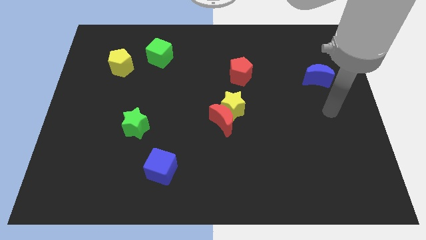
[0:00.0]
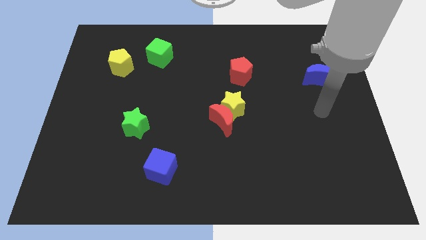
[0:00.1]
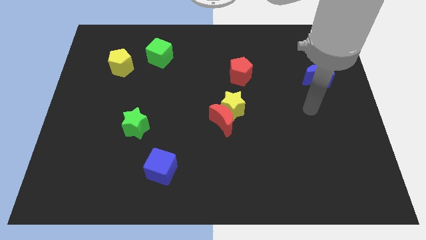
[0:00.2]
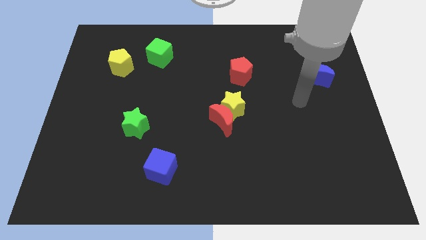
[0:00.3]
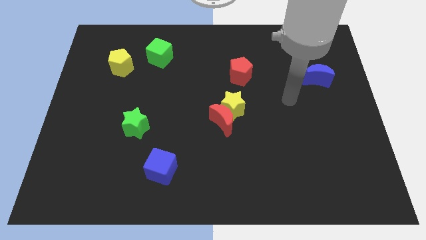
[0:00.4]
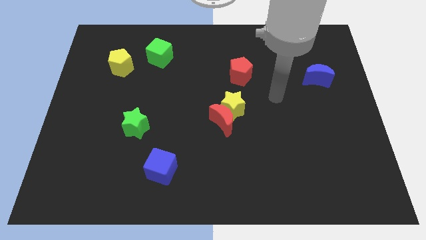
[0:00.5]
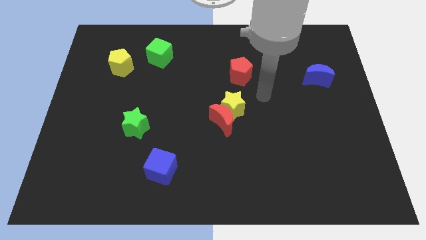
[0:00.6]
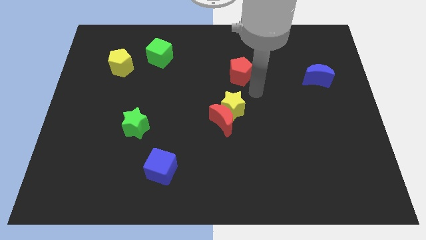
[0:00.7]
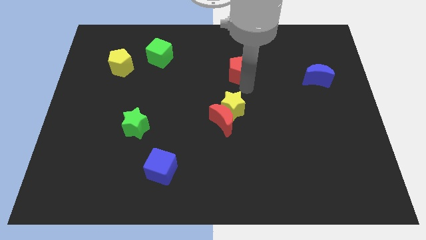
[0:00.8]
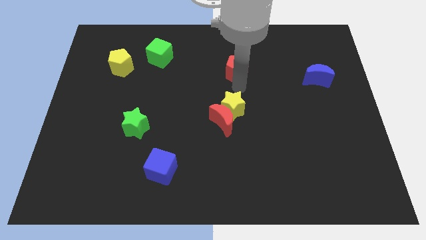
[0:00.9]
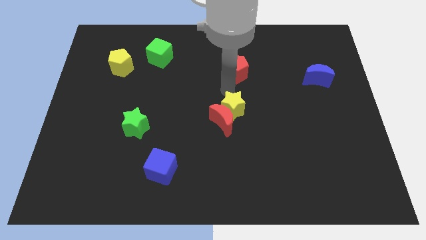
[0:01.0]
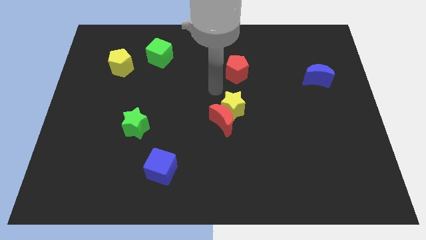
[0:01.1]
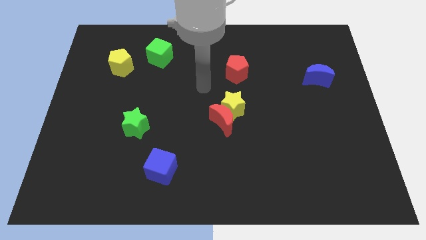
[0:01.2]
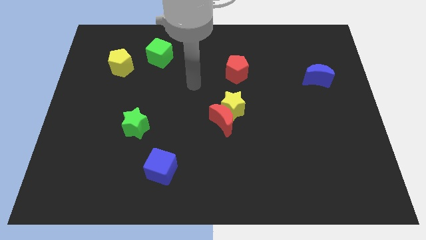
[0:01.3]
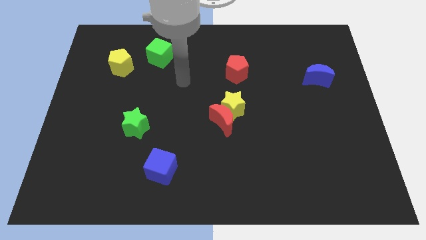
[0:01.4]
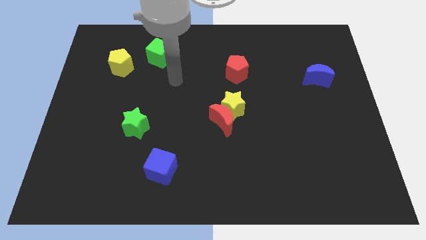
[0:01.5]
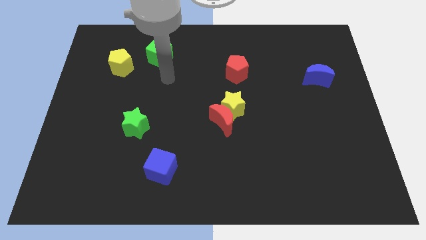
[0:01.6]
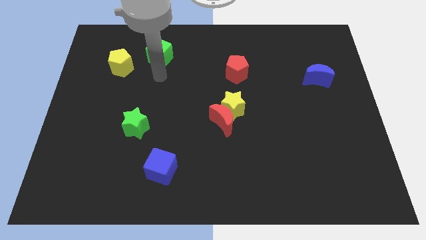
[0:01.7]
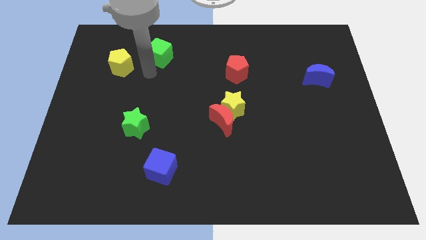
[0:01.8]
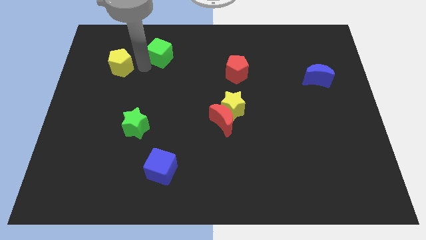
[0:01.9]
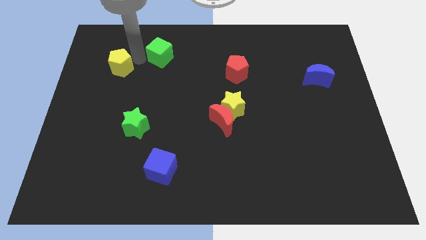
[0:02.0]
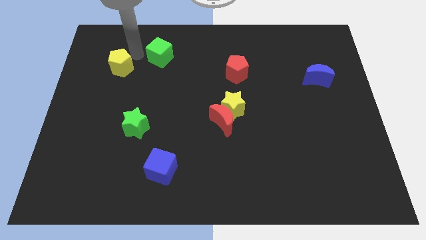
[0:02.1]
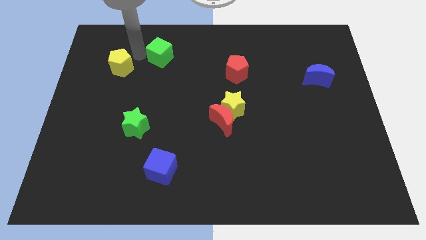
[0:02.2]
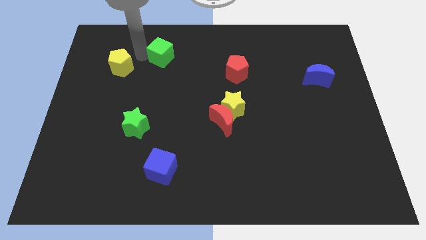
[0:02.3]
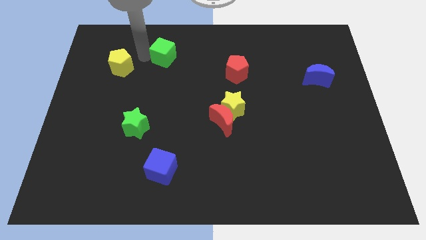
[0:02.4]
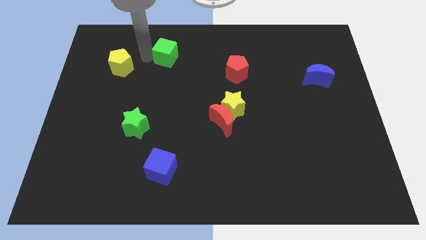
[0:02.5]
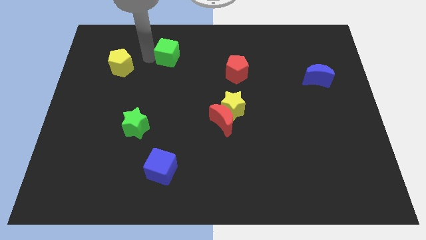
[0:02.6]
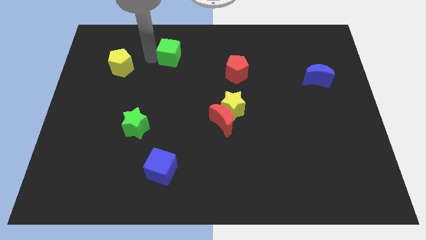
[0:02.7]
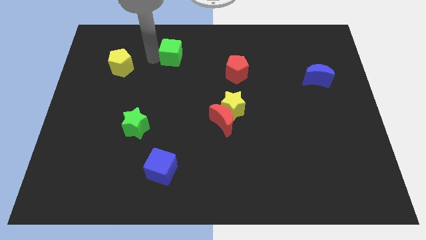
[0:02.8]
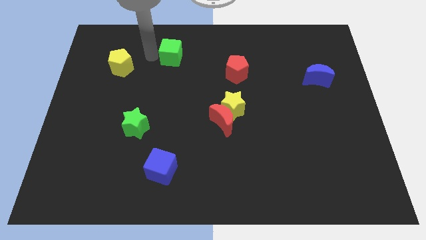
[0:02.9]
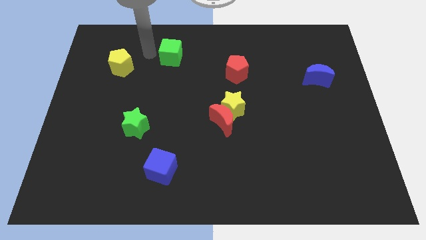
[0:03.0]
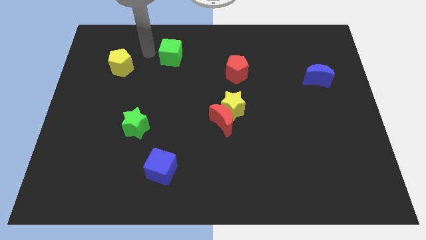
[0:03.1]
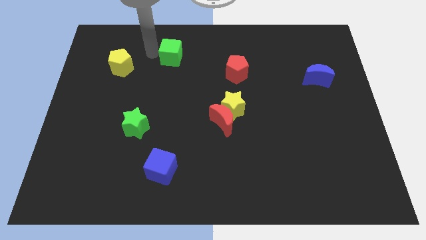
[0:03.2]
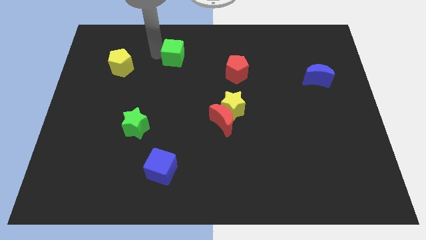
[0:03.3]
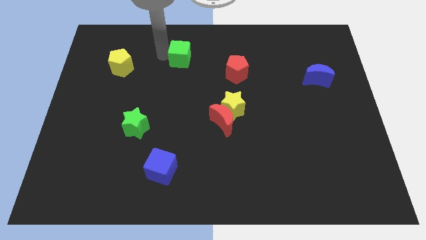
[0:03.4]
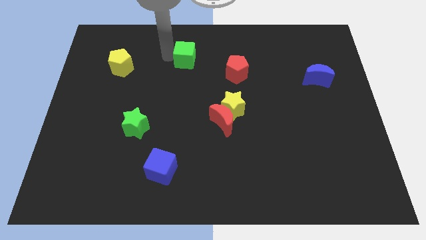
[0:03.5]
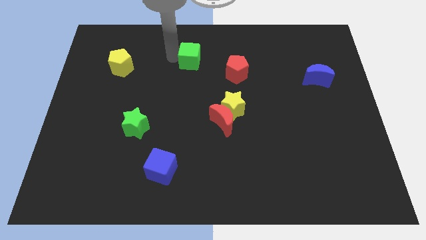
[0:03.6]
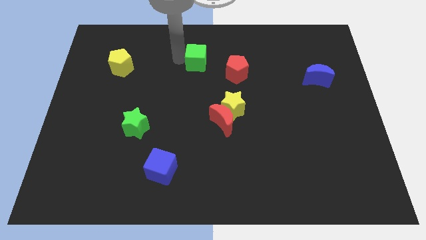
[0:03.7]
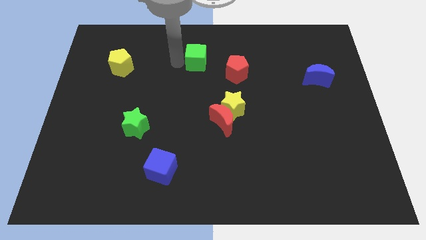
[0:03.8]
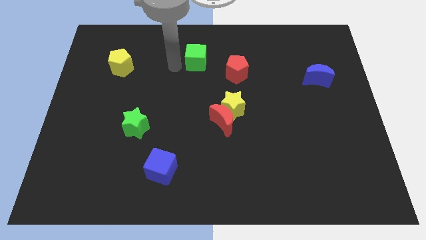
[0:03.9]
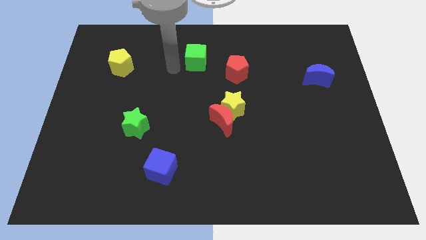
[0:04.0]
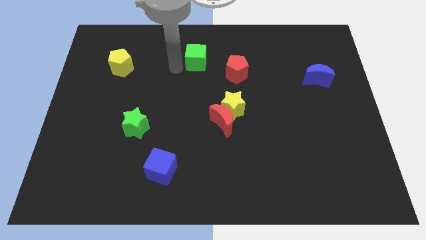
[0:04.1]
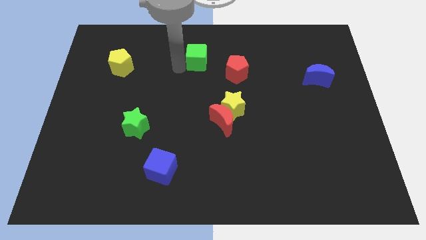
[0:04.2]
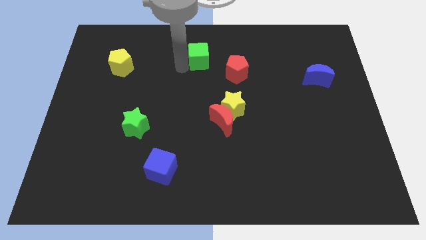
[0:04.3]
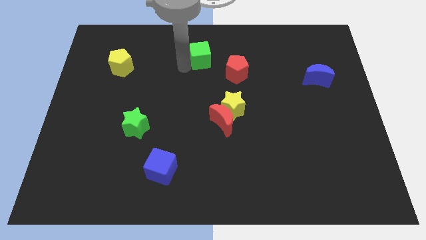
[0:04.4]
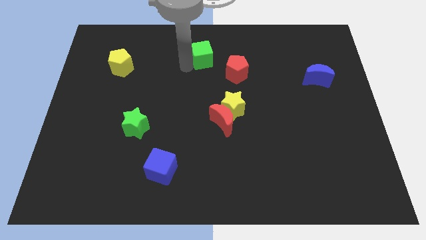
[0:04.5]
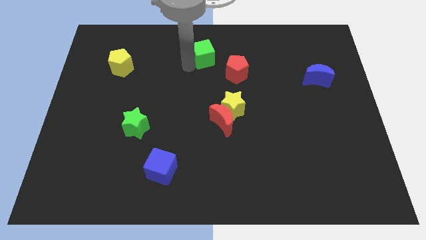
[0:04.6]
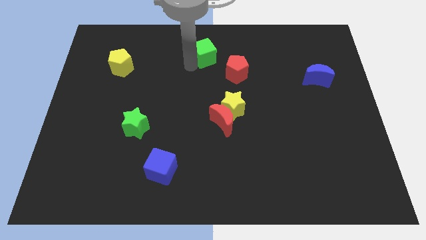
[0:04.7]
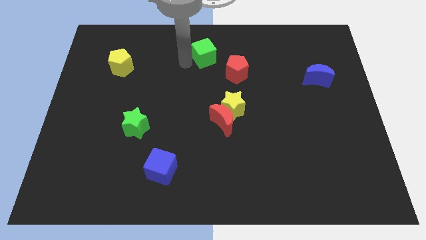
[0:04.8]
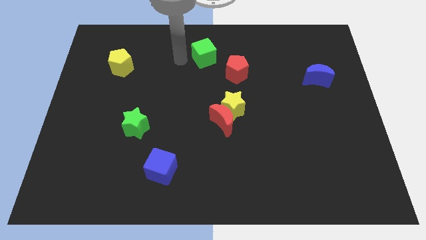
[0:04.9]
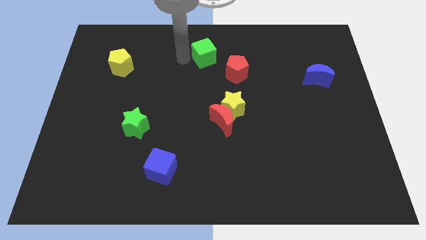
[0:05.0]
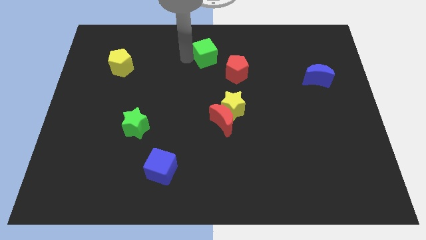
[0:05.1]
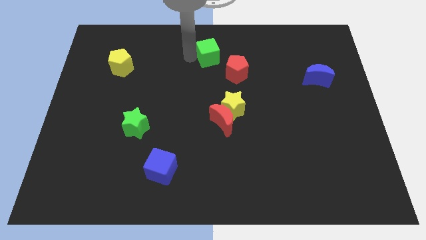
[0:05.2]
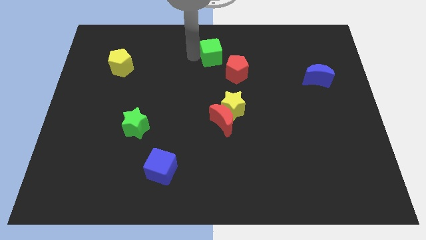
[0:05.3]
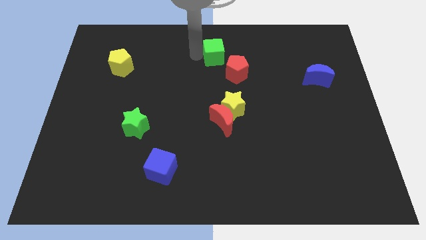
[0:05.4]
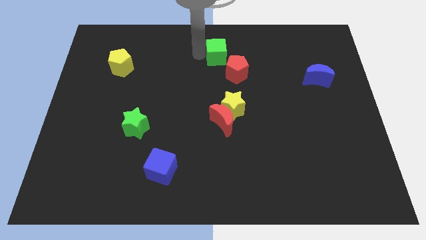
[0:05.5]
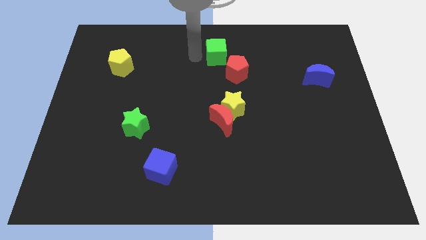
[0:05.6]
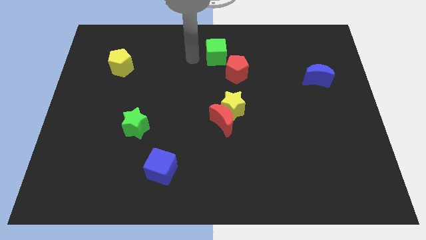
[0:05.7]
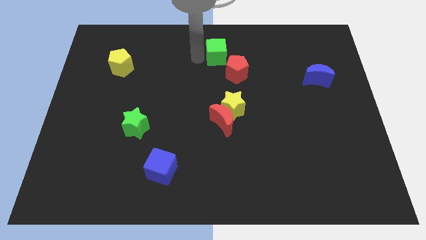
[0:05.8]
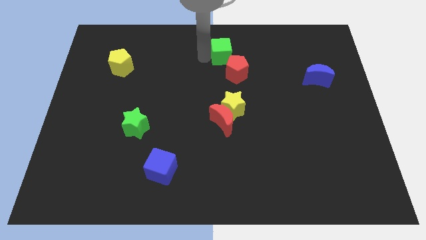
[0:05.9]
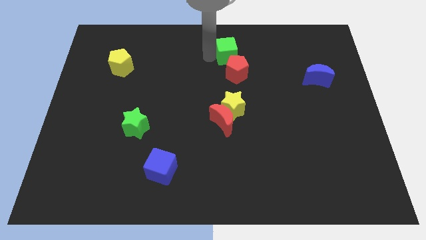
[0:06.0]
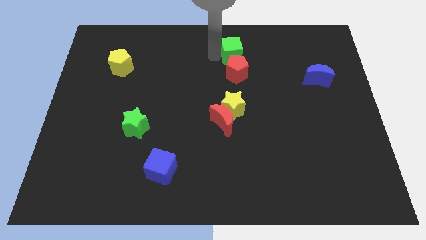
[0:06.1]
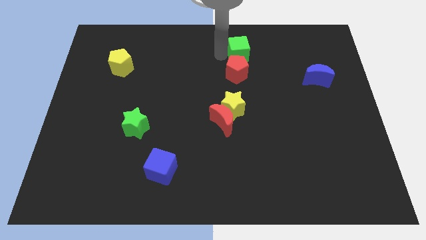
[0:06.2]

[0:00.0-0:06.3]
push the green cube right

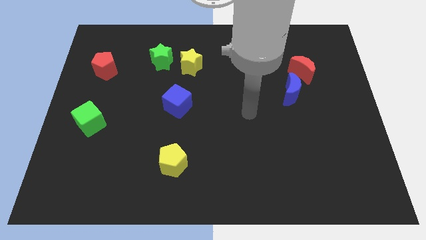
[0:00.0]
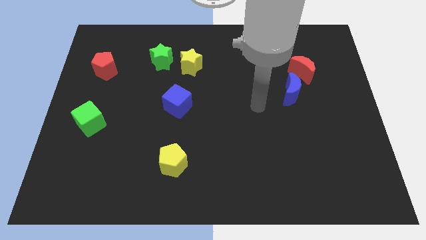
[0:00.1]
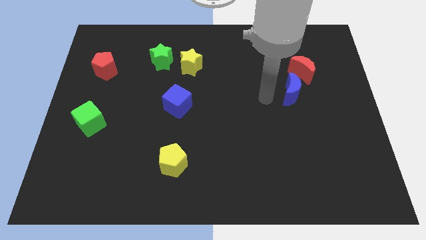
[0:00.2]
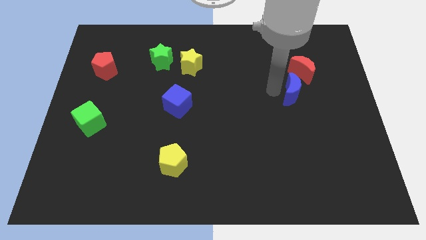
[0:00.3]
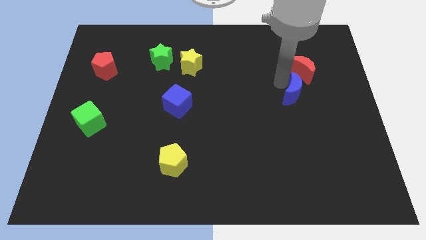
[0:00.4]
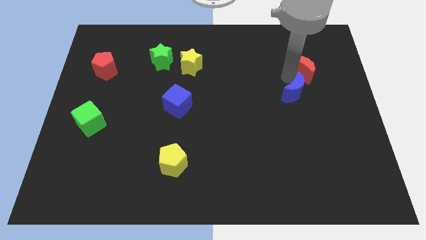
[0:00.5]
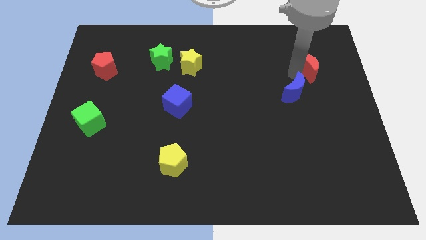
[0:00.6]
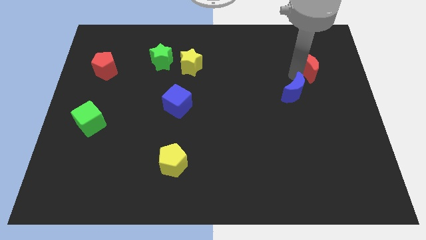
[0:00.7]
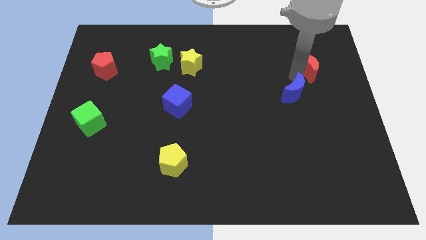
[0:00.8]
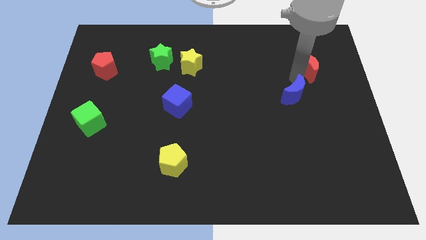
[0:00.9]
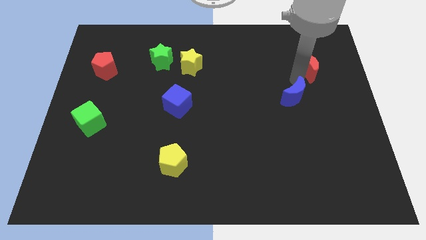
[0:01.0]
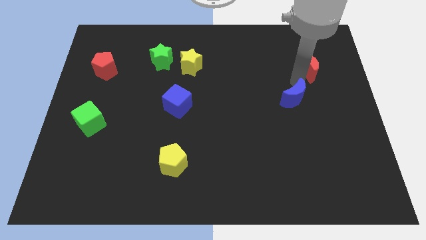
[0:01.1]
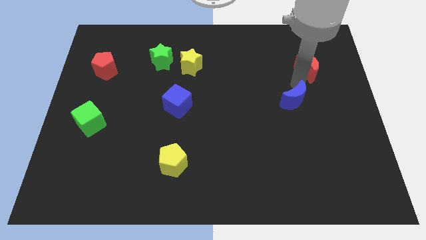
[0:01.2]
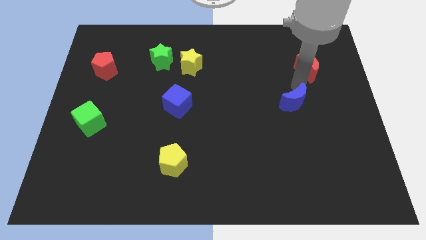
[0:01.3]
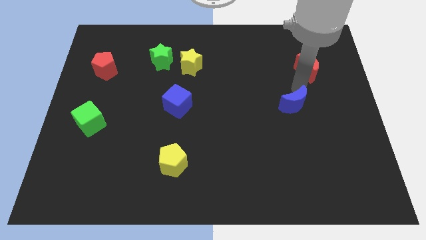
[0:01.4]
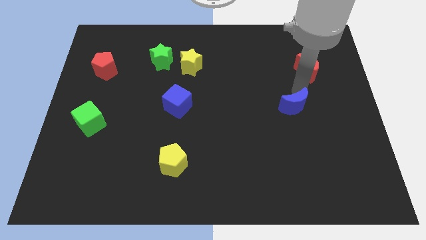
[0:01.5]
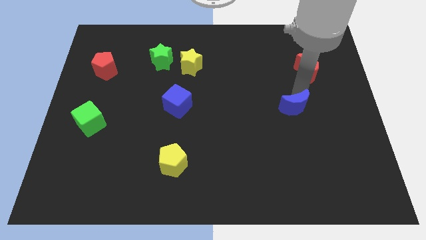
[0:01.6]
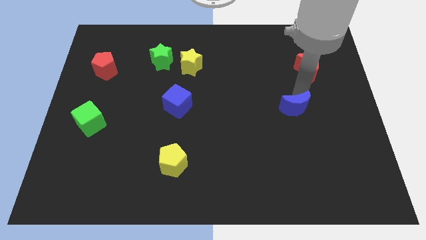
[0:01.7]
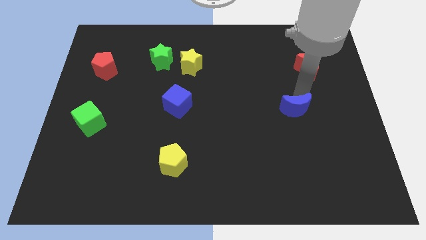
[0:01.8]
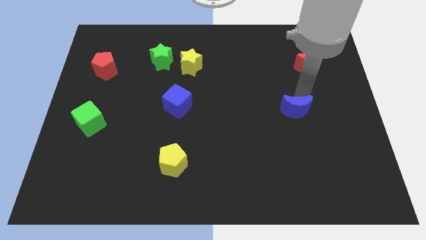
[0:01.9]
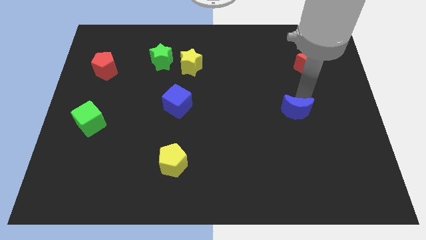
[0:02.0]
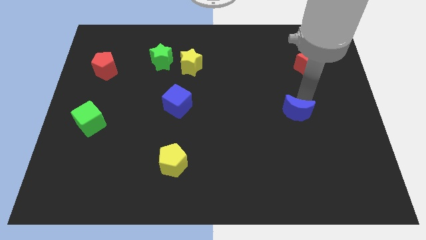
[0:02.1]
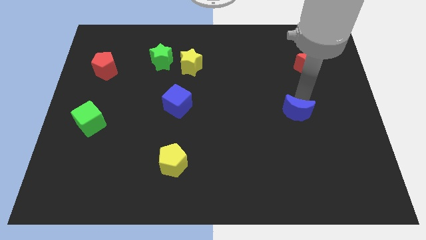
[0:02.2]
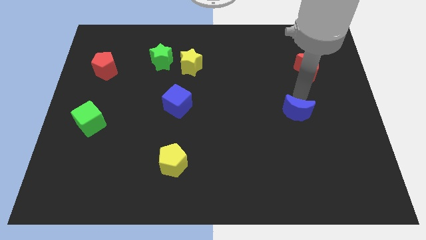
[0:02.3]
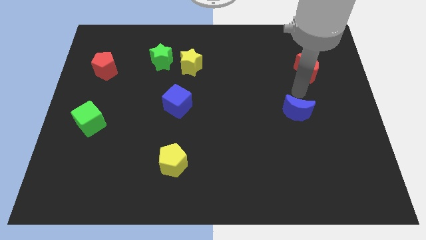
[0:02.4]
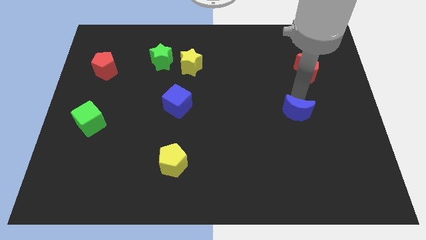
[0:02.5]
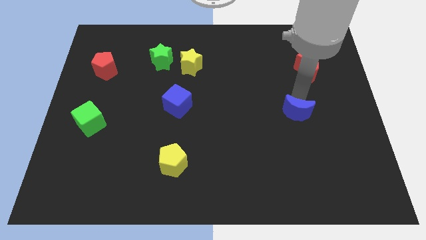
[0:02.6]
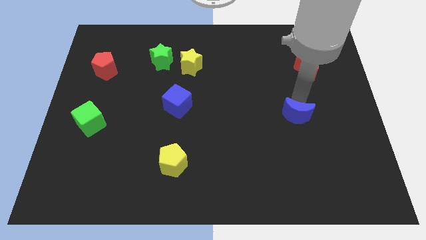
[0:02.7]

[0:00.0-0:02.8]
move the blue moon downwards somewhat
